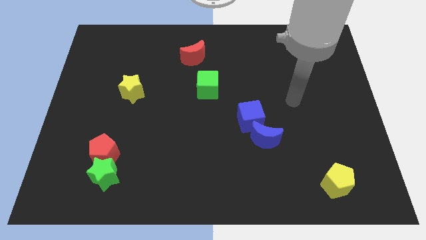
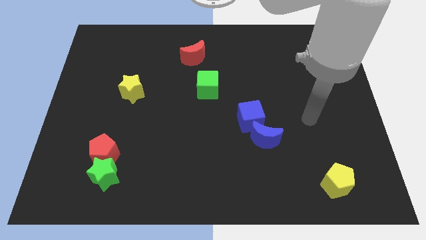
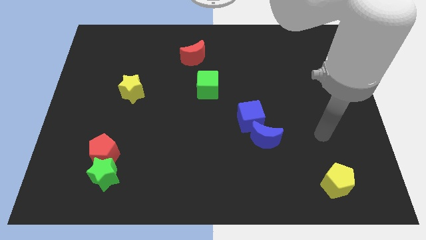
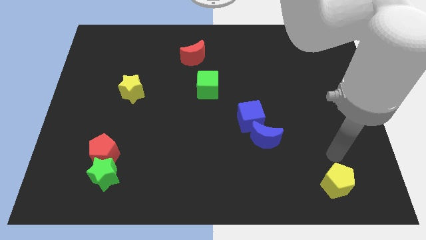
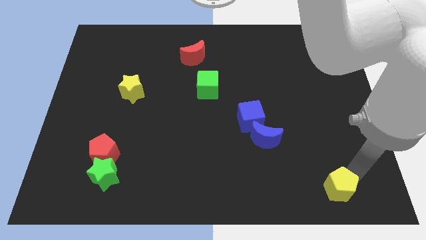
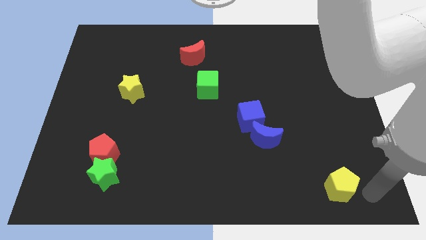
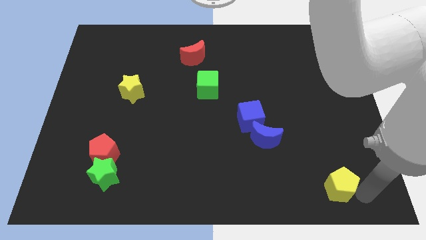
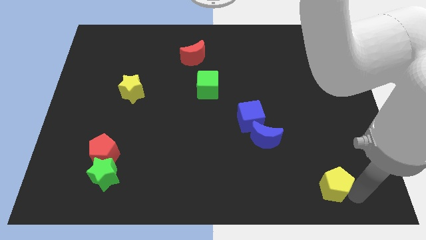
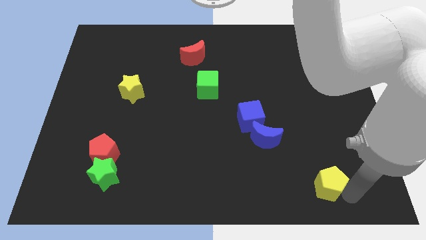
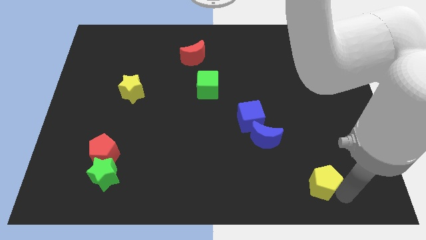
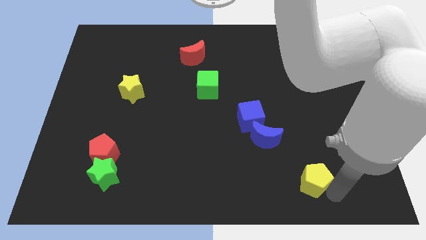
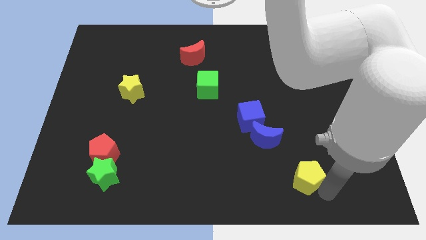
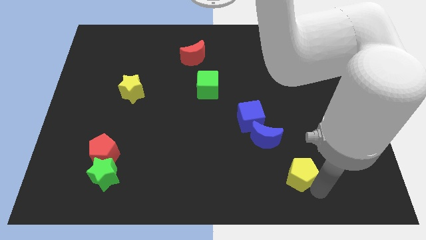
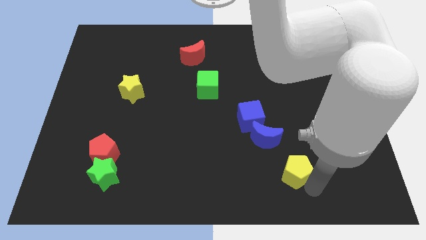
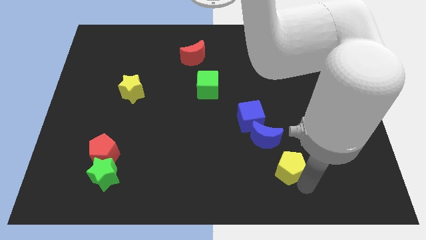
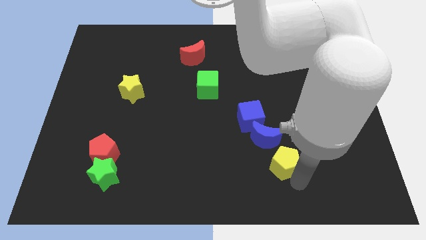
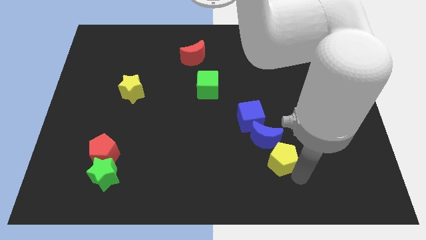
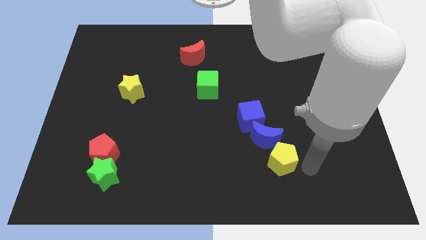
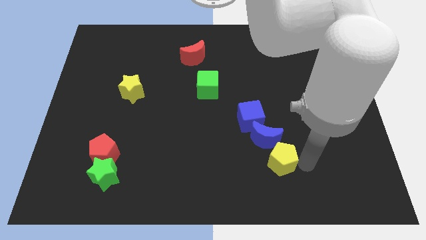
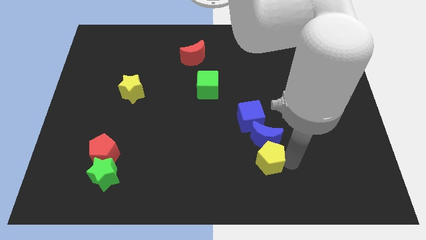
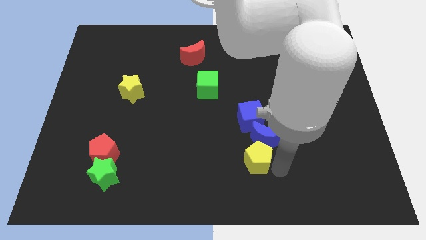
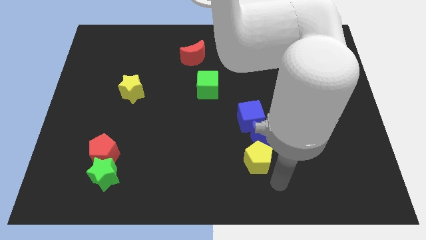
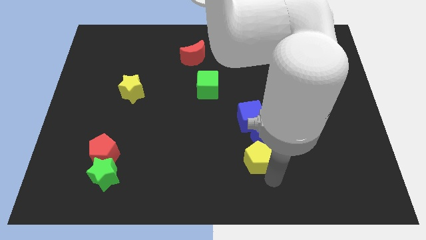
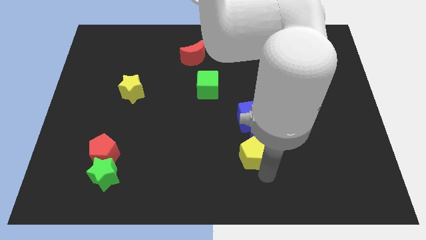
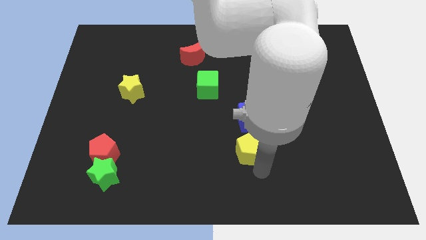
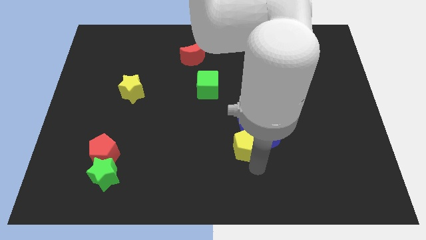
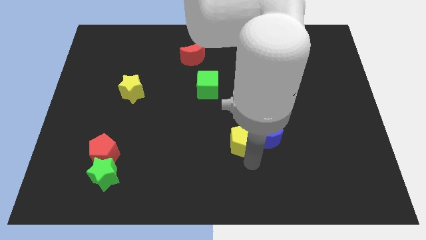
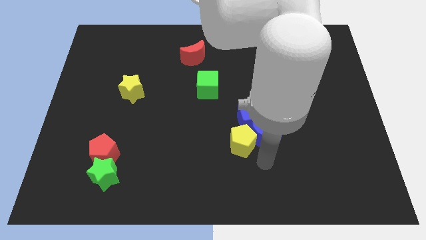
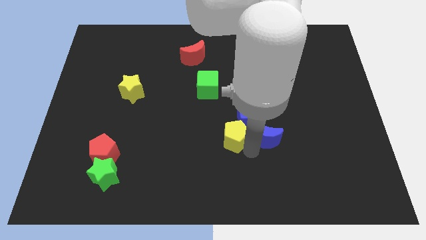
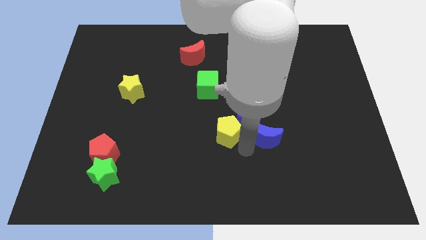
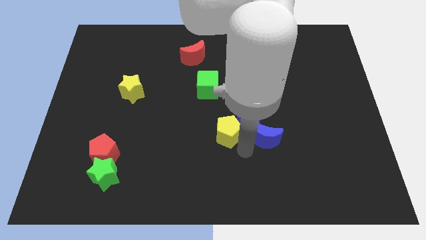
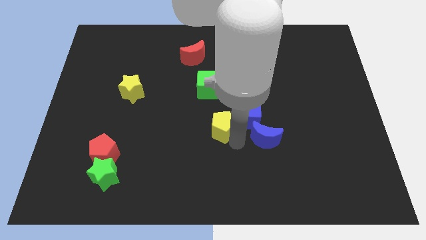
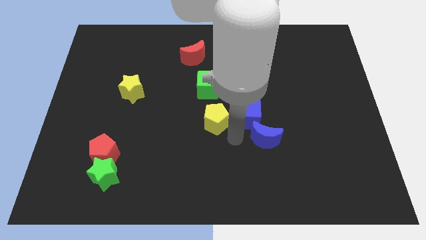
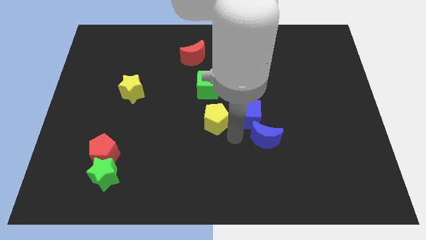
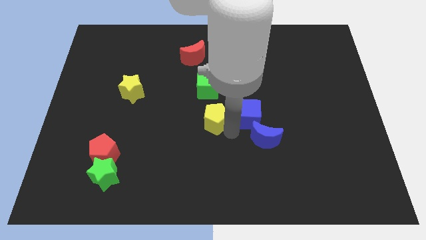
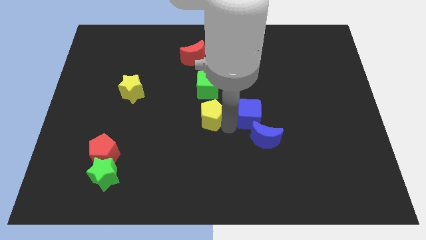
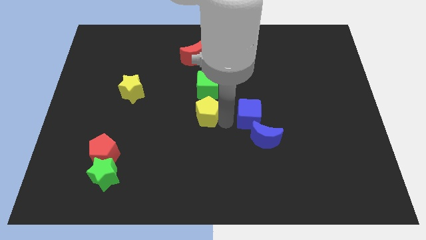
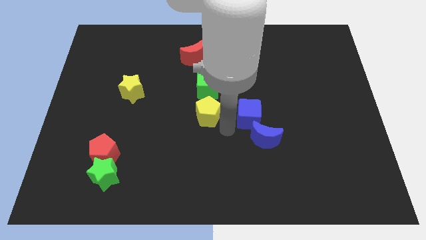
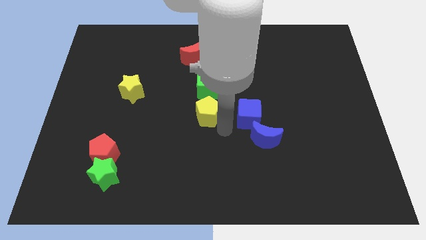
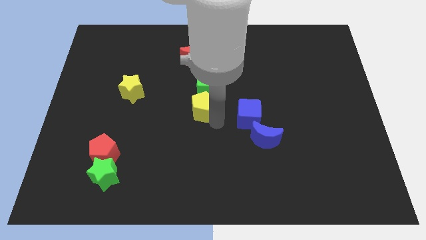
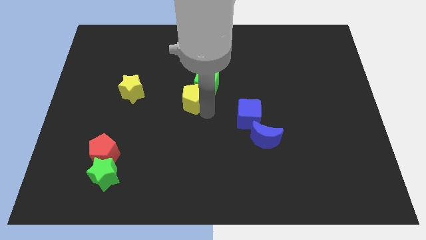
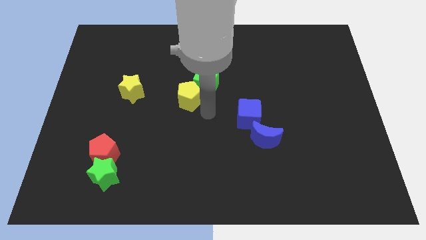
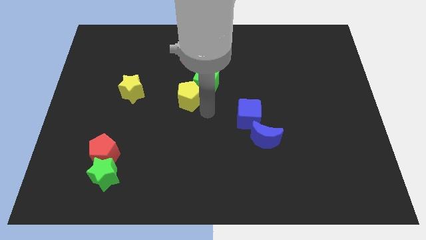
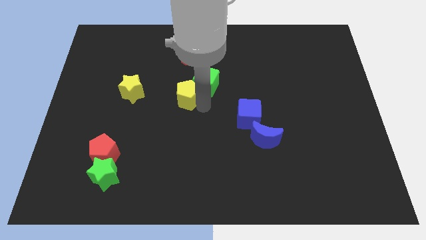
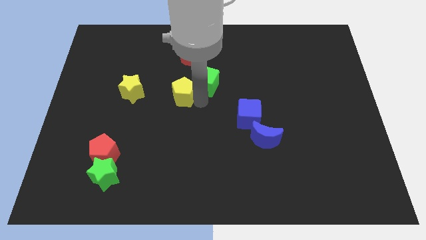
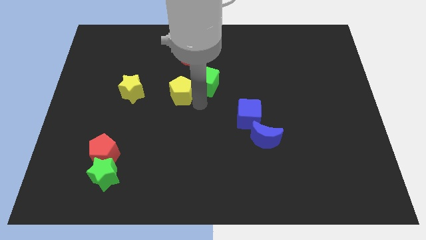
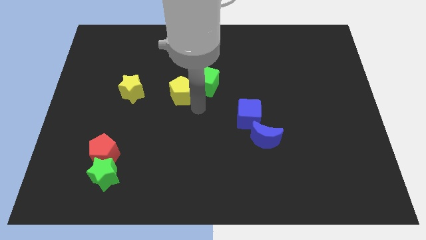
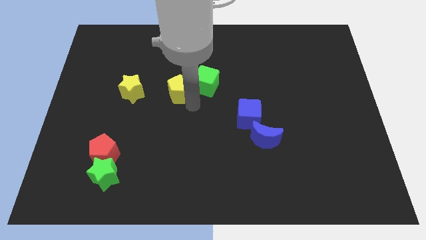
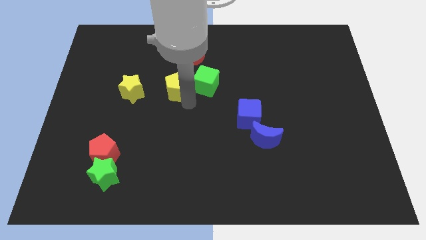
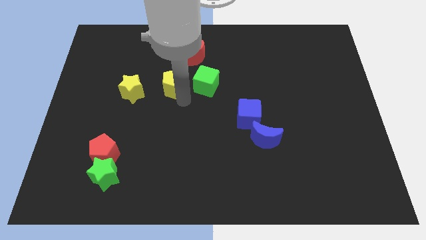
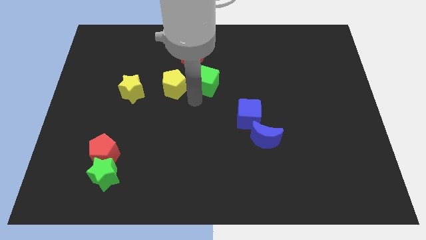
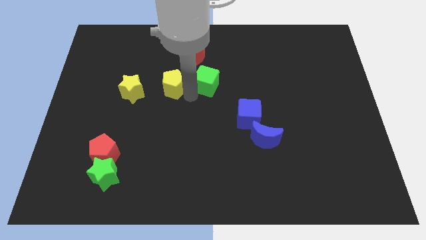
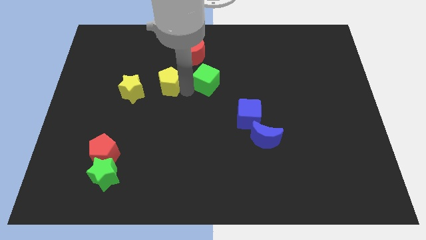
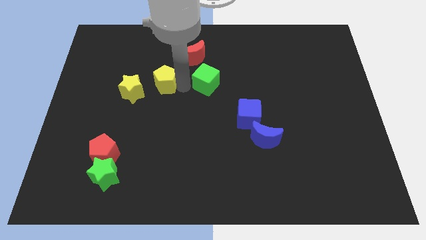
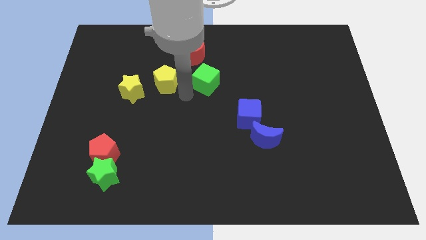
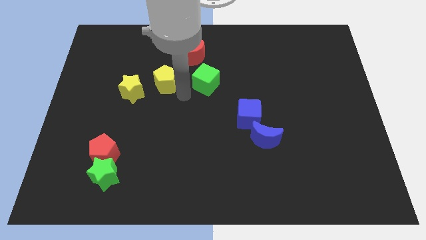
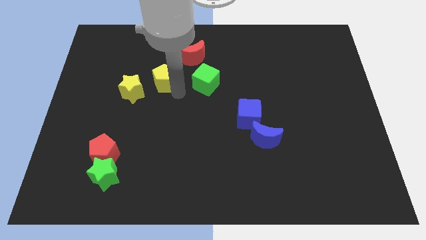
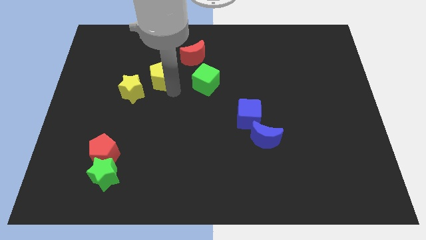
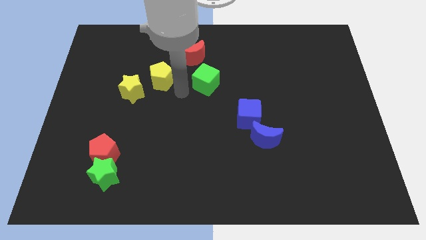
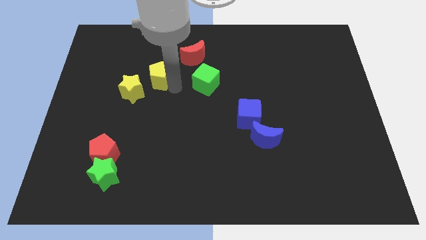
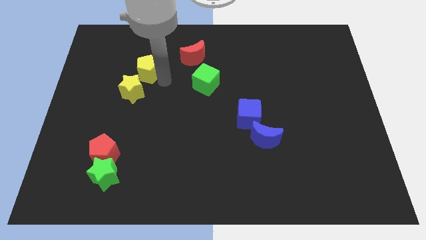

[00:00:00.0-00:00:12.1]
put the yellow pentagon to the top of the yellow star

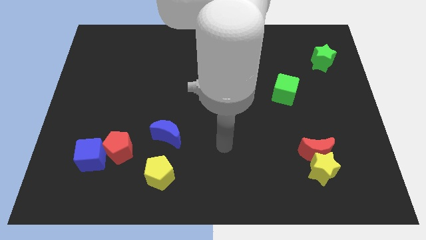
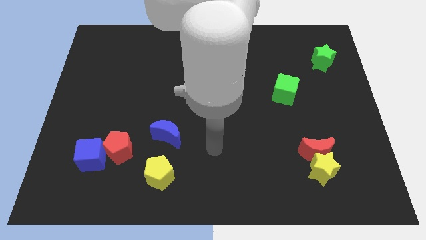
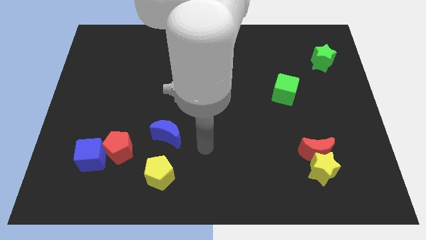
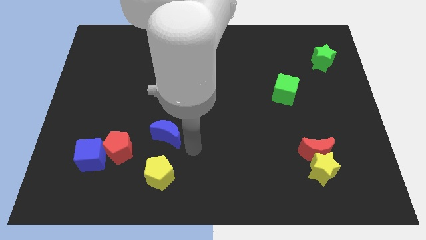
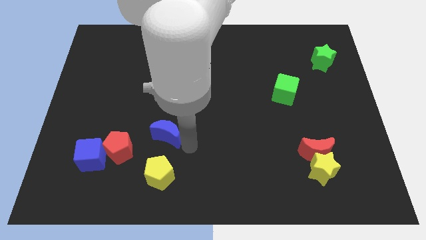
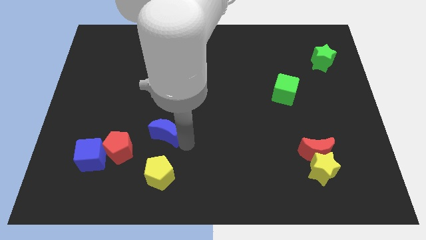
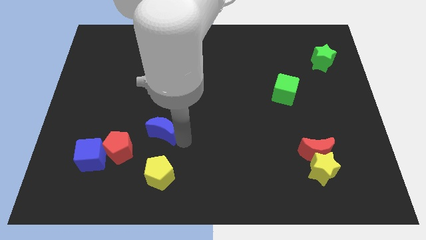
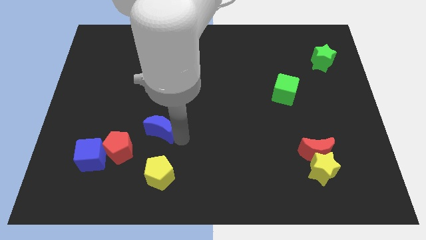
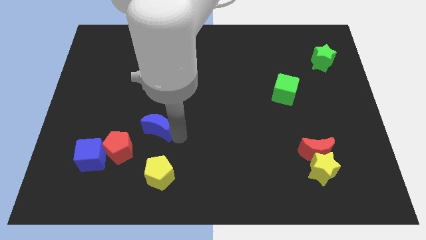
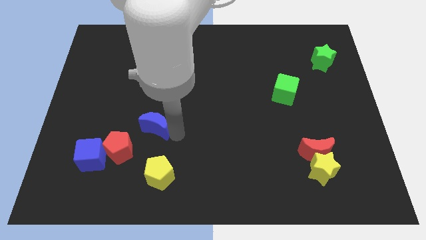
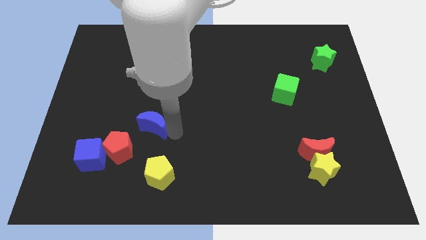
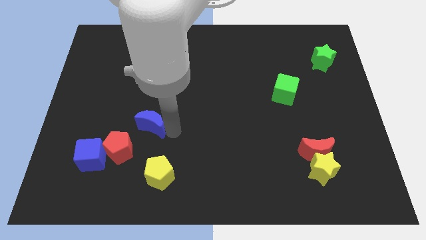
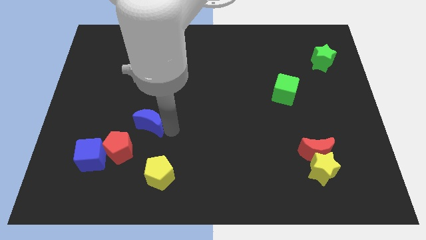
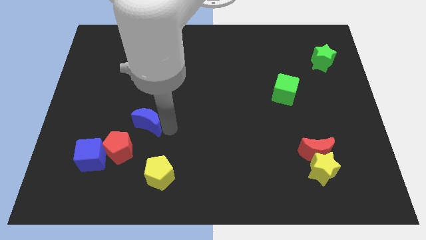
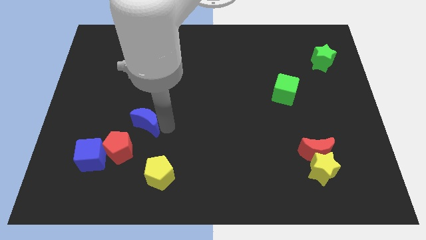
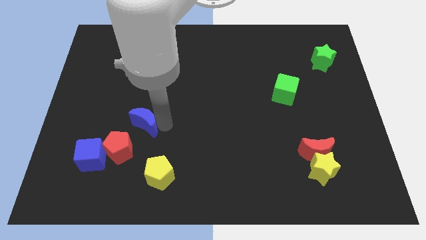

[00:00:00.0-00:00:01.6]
push the blue moon to the top side of the red pentagon

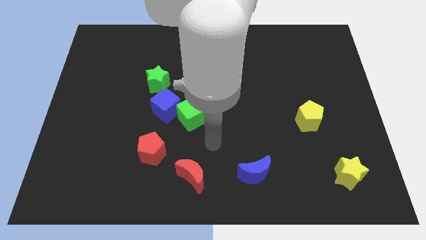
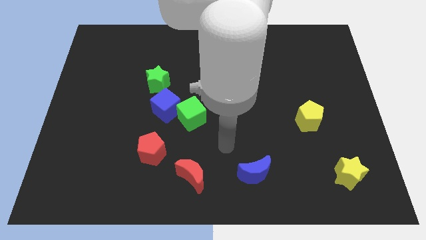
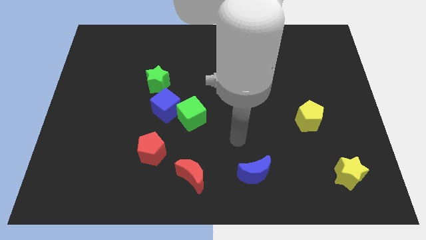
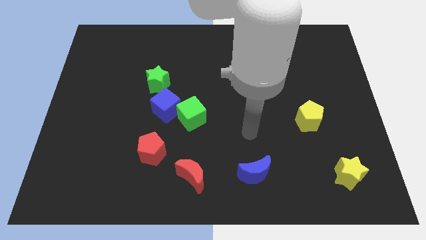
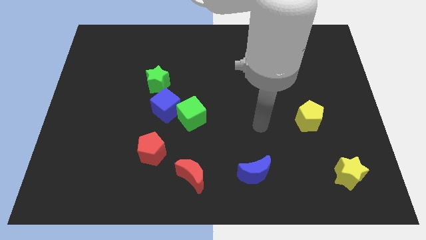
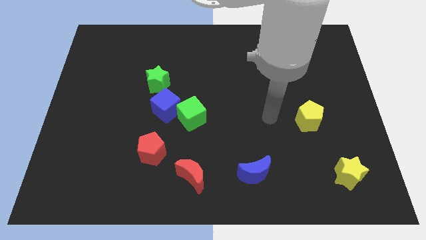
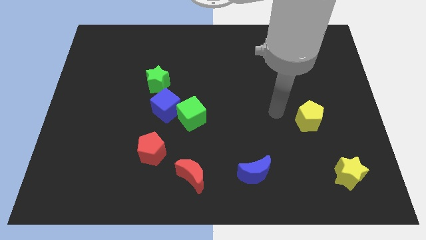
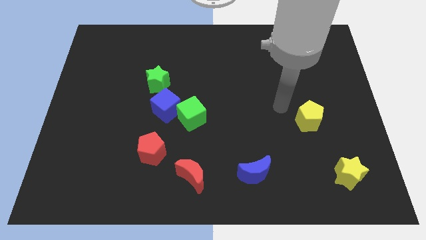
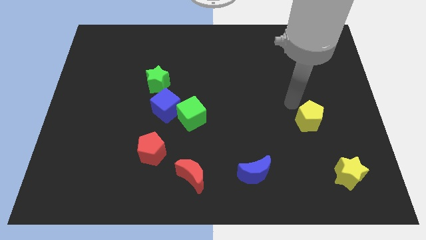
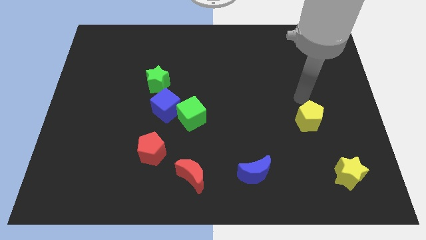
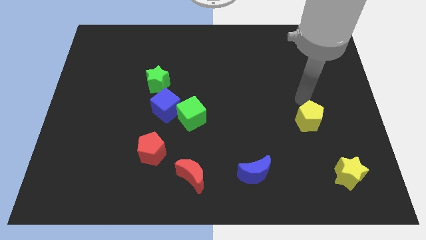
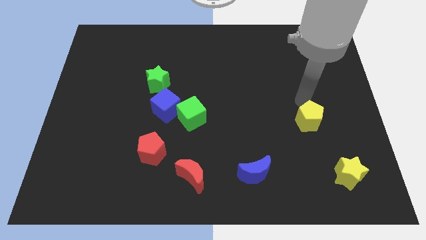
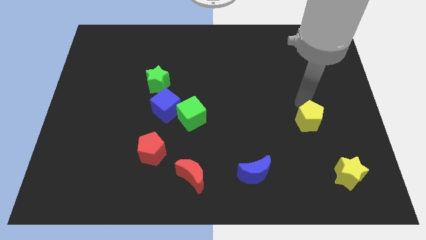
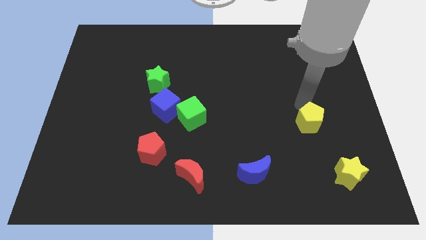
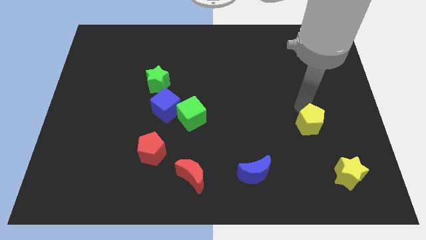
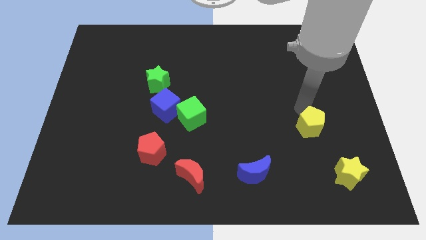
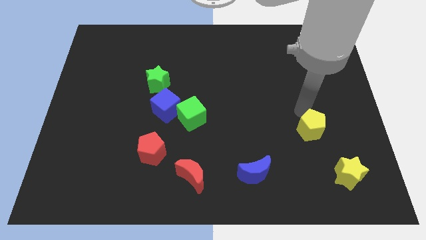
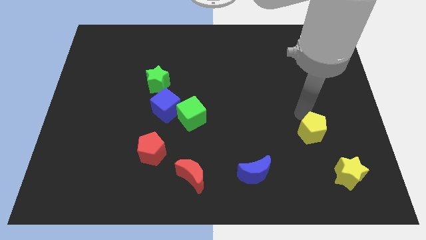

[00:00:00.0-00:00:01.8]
push the yellow pentagon to the top left side of the yellow star
